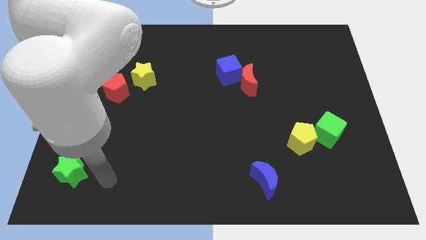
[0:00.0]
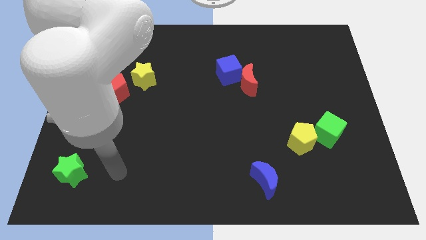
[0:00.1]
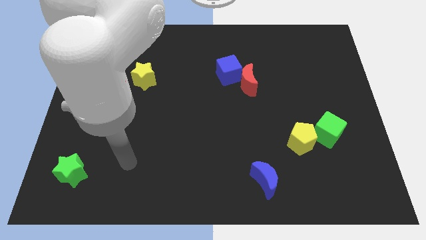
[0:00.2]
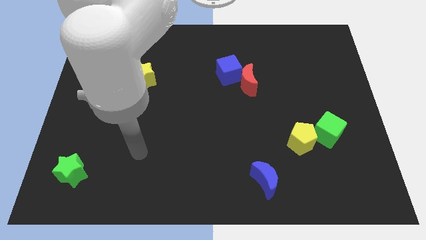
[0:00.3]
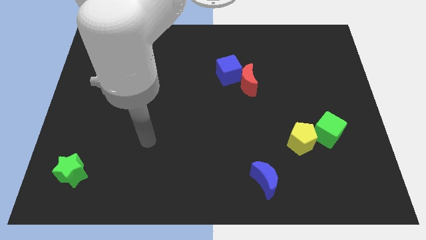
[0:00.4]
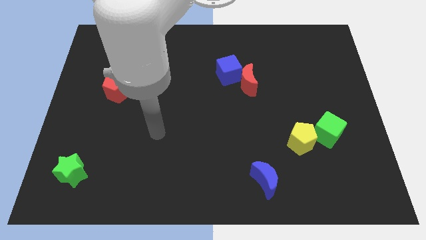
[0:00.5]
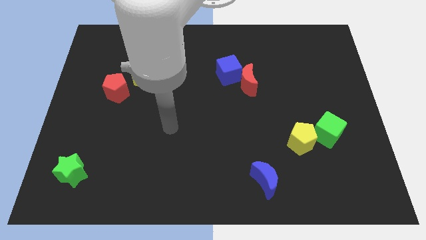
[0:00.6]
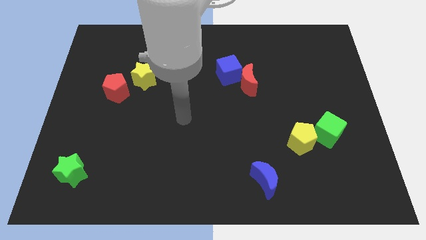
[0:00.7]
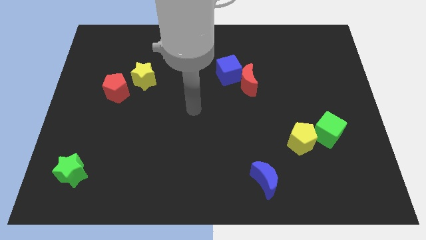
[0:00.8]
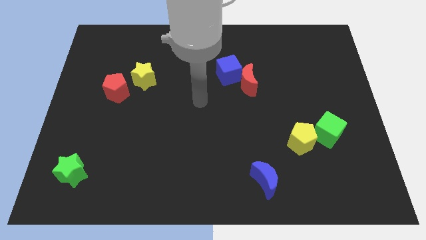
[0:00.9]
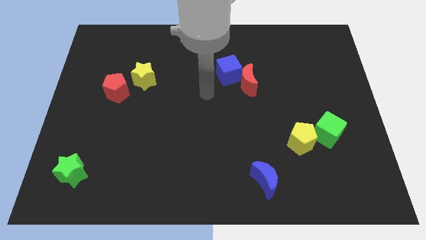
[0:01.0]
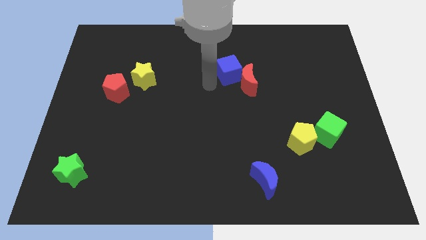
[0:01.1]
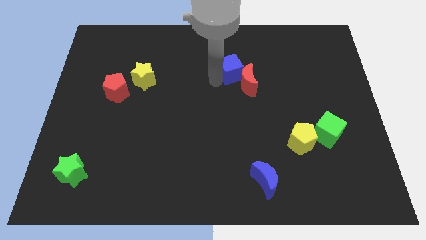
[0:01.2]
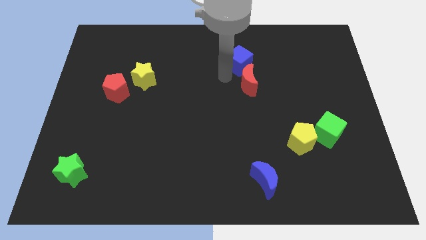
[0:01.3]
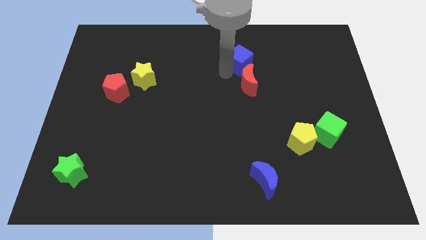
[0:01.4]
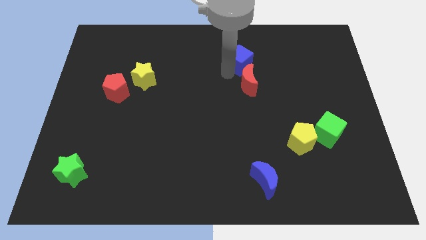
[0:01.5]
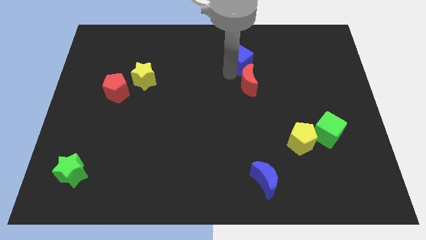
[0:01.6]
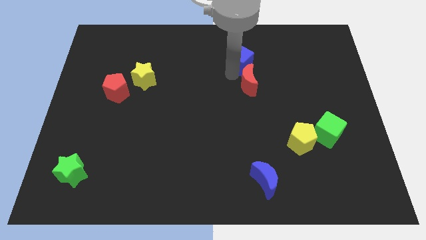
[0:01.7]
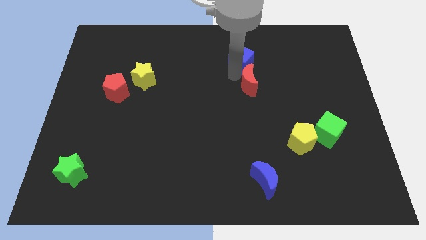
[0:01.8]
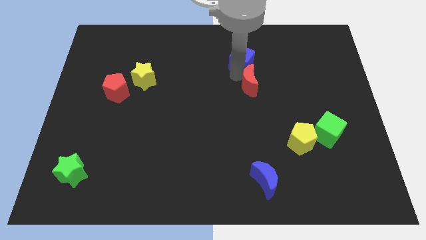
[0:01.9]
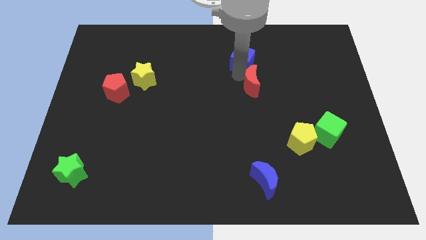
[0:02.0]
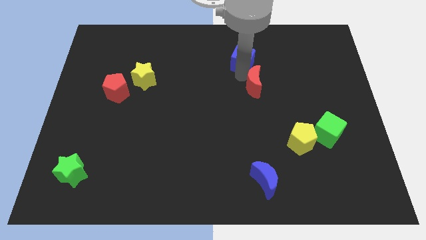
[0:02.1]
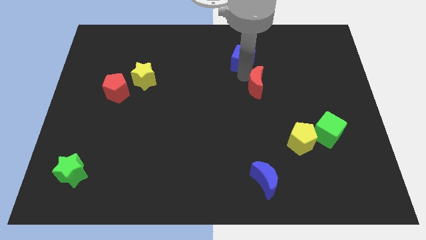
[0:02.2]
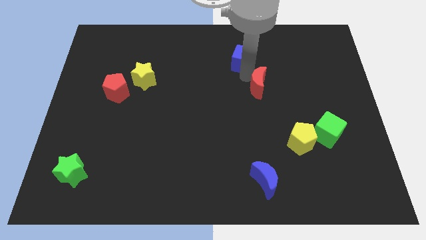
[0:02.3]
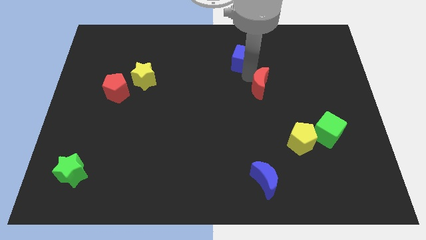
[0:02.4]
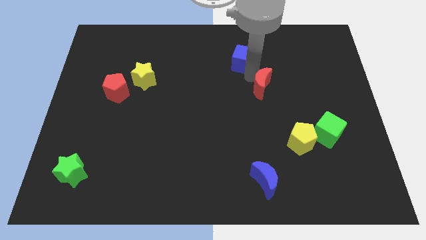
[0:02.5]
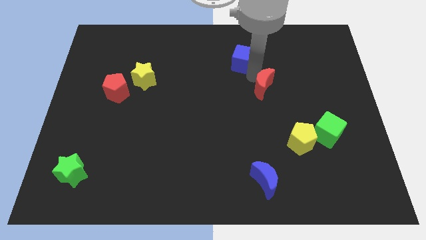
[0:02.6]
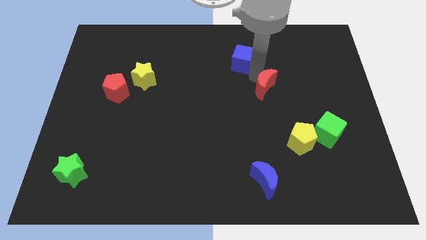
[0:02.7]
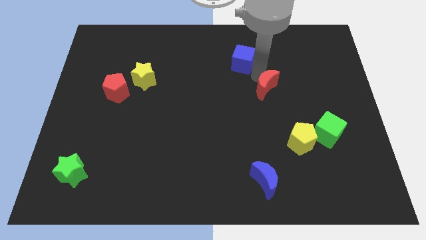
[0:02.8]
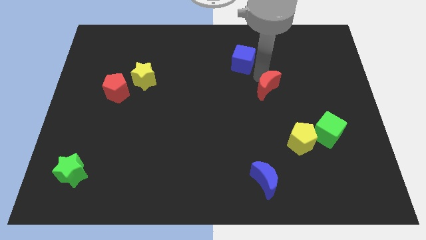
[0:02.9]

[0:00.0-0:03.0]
separate the red moon from the blue cube

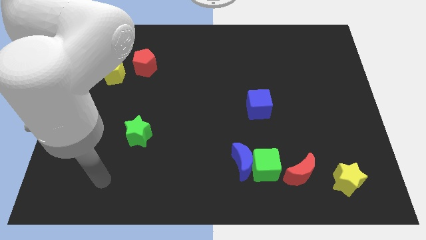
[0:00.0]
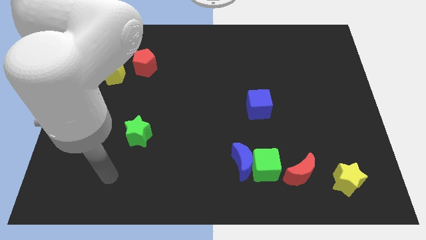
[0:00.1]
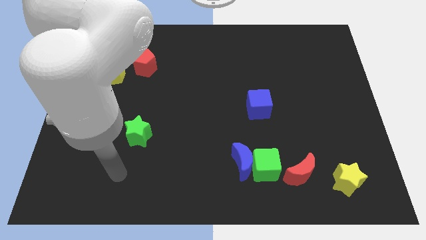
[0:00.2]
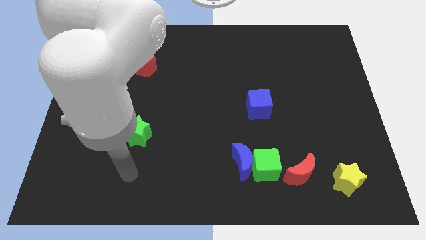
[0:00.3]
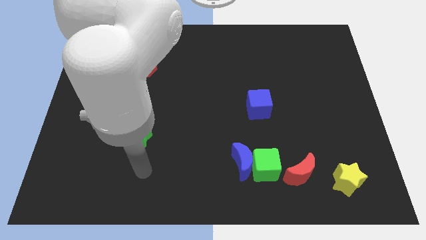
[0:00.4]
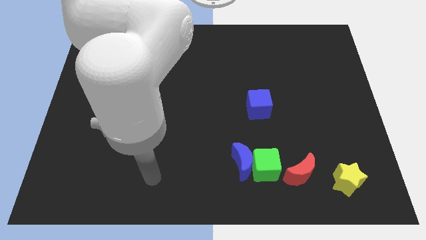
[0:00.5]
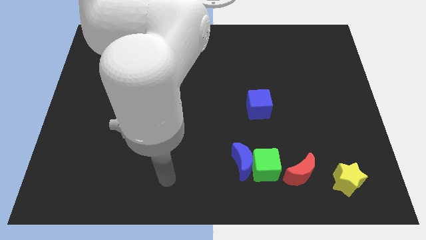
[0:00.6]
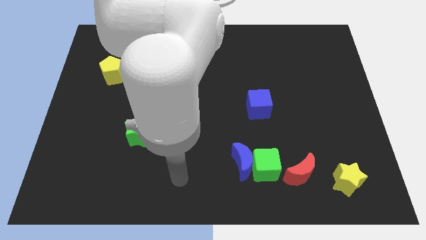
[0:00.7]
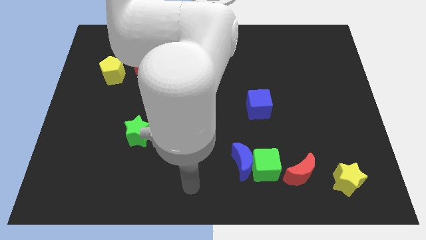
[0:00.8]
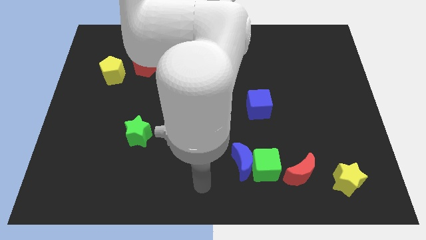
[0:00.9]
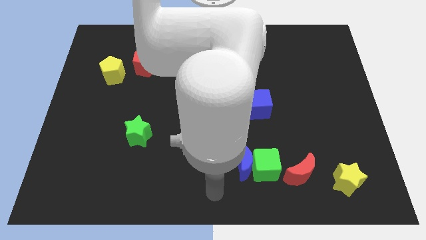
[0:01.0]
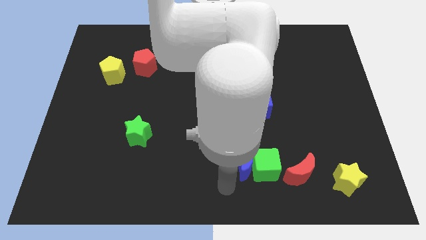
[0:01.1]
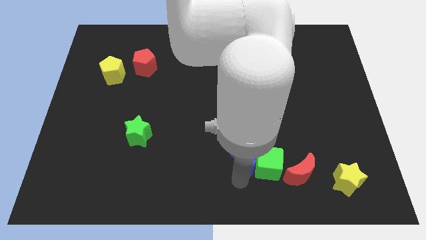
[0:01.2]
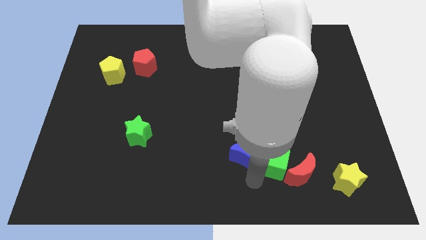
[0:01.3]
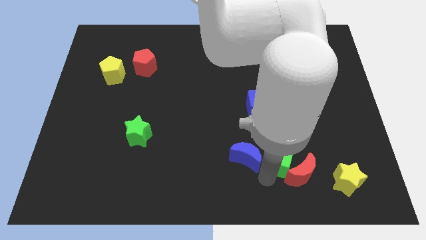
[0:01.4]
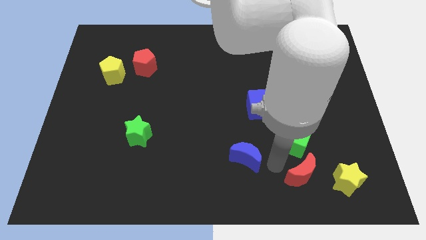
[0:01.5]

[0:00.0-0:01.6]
pull the blue moon apart from the green cube

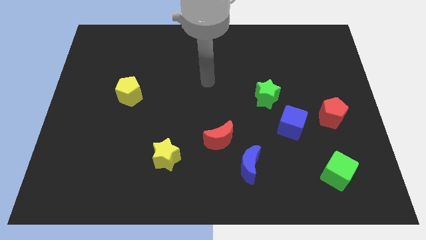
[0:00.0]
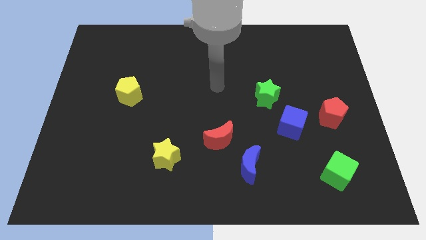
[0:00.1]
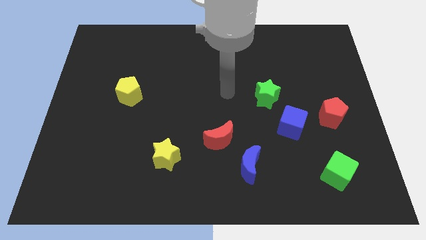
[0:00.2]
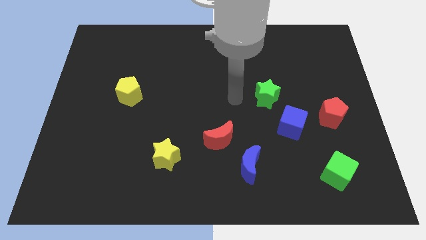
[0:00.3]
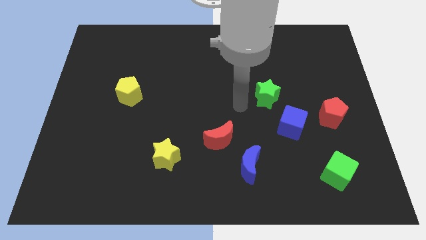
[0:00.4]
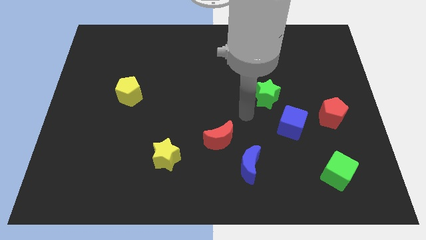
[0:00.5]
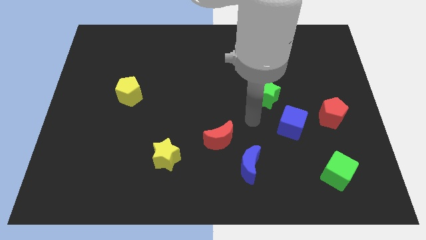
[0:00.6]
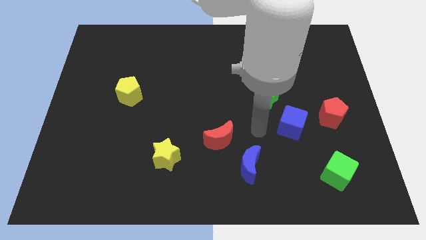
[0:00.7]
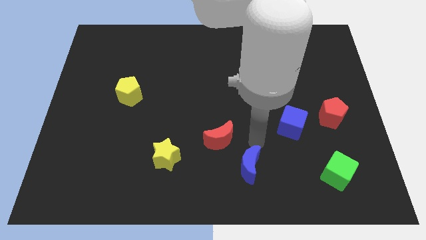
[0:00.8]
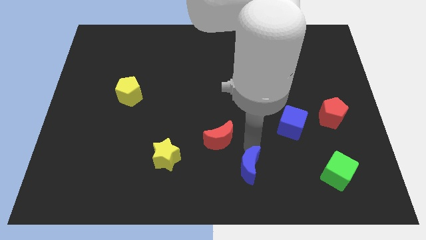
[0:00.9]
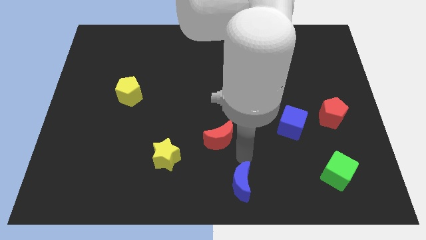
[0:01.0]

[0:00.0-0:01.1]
pull the red moon apart from the blue moon

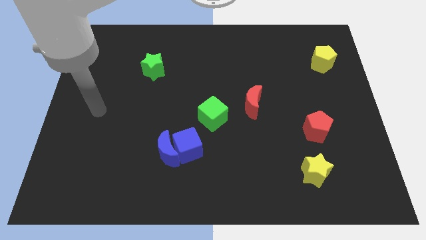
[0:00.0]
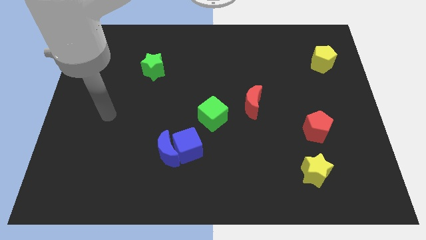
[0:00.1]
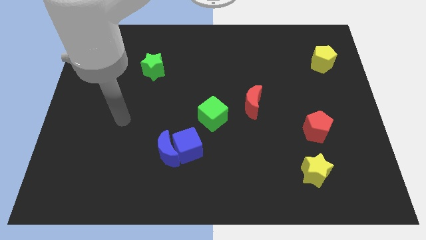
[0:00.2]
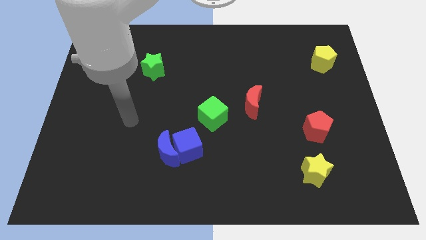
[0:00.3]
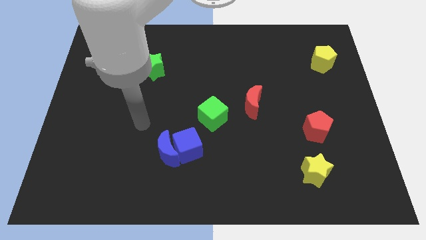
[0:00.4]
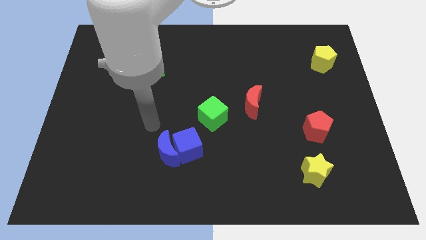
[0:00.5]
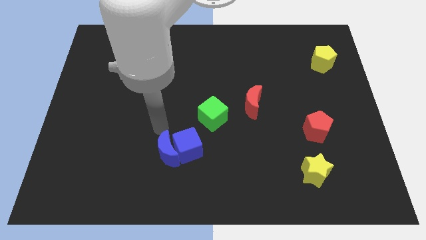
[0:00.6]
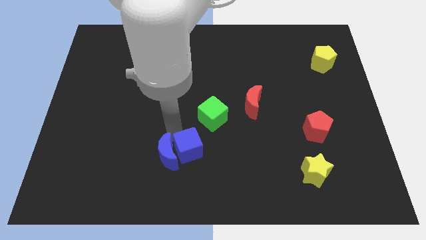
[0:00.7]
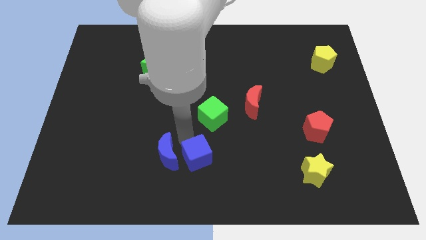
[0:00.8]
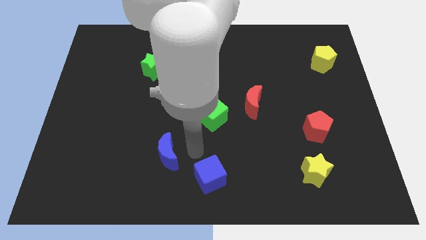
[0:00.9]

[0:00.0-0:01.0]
separate the blue moon from the blue cube

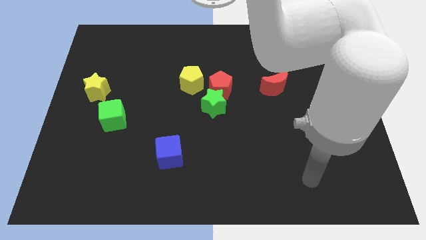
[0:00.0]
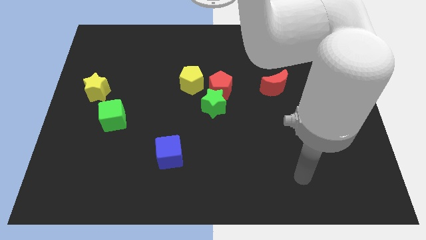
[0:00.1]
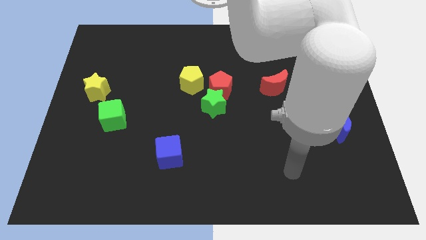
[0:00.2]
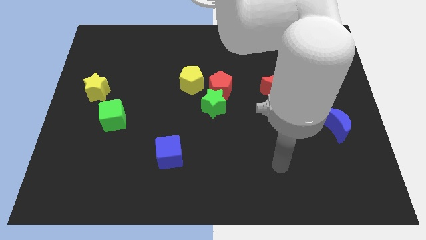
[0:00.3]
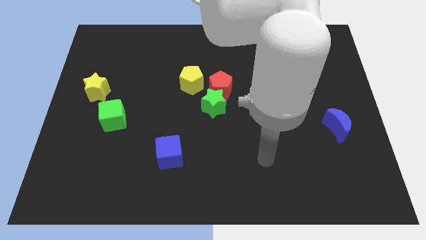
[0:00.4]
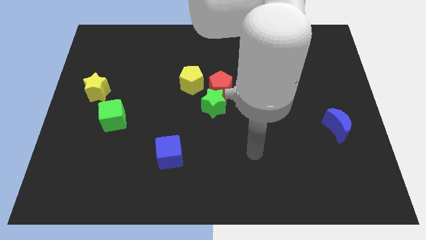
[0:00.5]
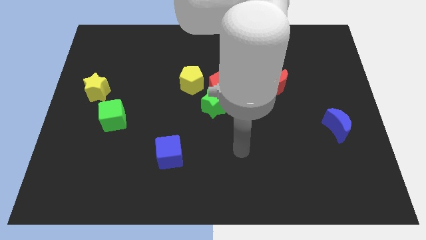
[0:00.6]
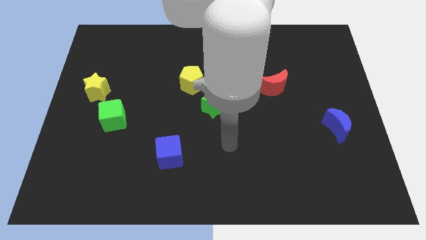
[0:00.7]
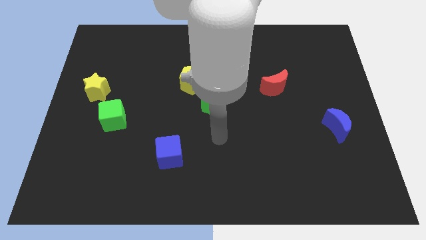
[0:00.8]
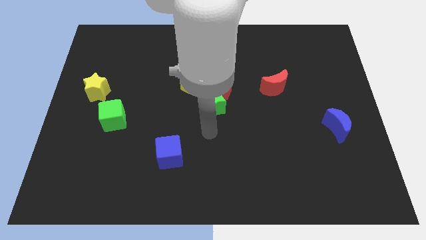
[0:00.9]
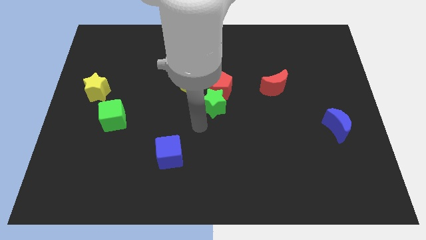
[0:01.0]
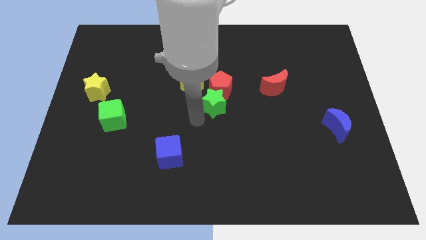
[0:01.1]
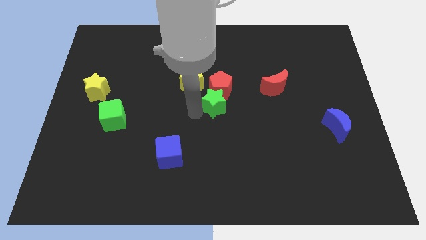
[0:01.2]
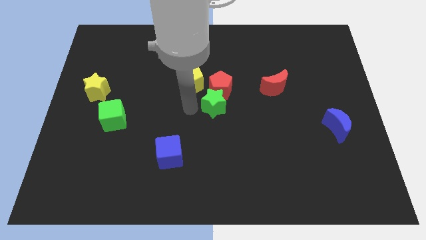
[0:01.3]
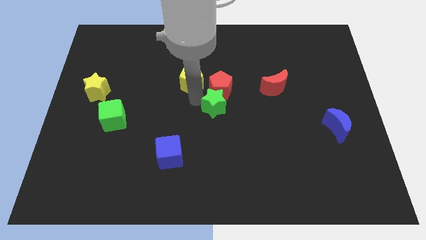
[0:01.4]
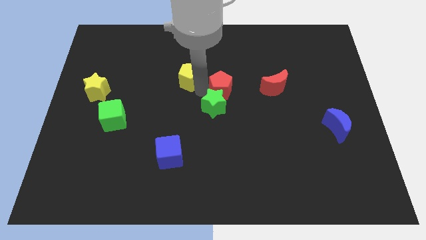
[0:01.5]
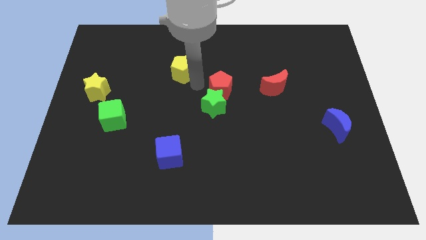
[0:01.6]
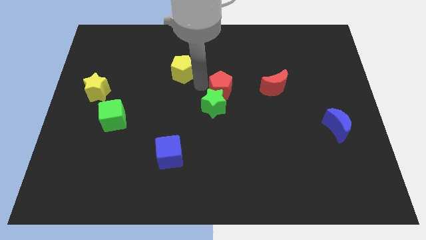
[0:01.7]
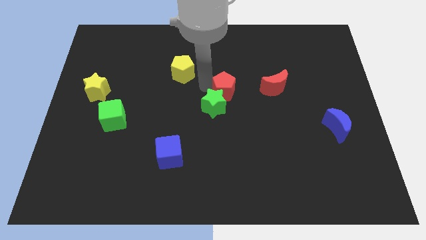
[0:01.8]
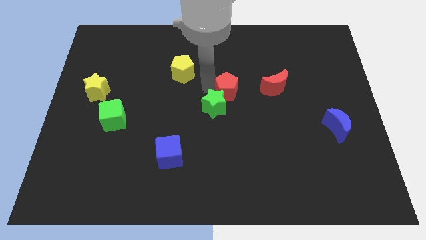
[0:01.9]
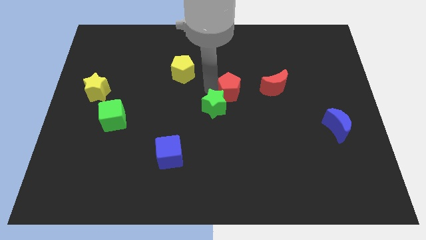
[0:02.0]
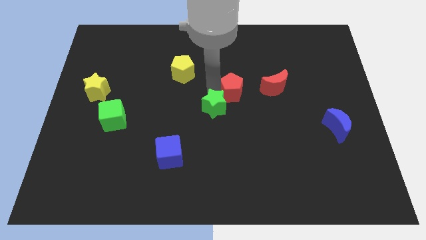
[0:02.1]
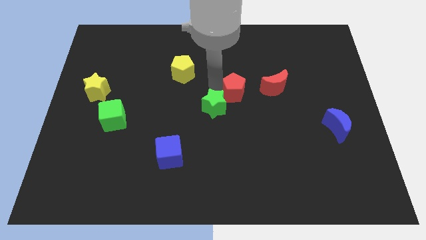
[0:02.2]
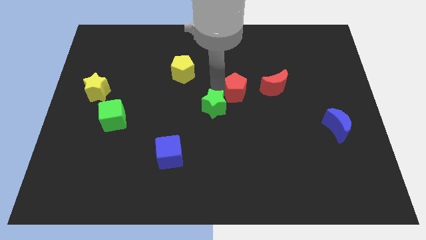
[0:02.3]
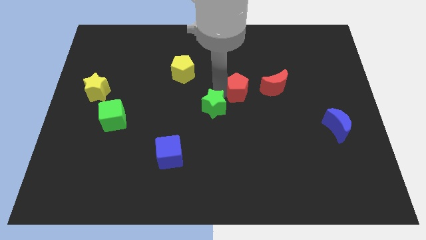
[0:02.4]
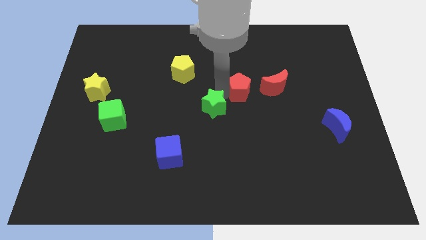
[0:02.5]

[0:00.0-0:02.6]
separate the red pentagon from the green star and yellow pentagon
